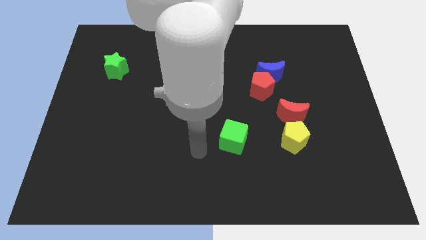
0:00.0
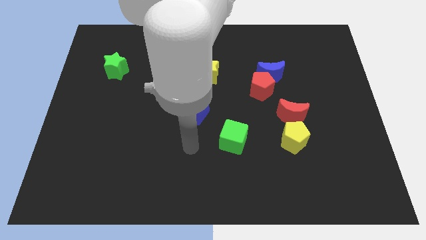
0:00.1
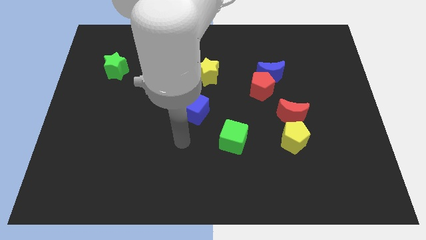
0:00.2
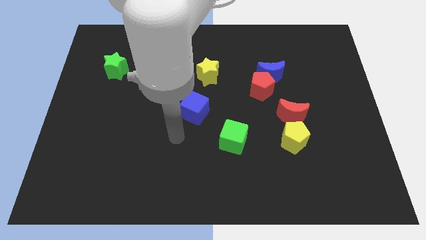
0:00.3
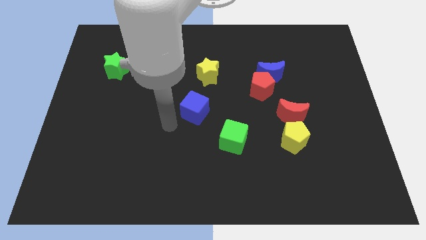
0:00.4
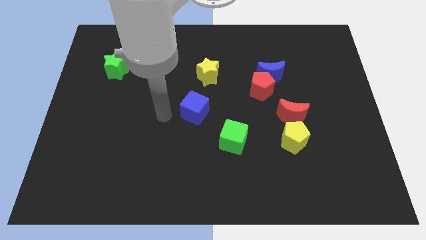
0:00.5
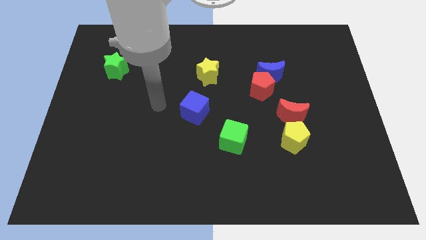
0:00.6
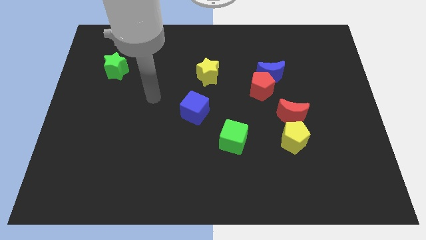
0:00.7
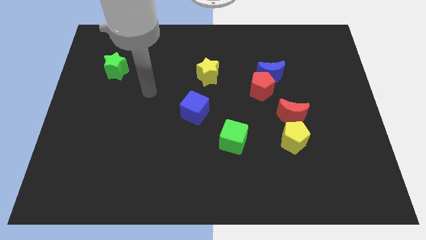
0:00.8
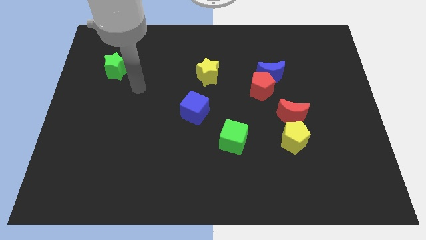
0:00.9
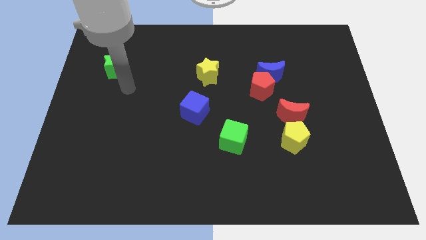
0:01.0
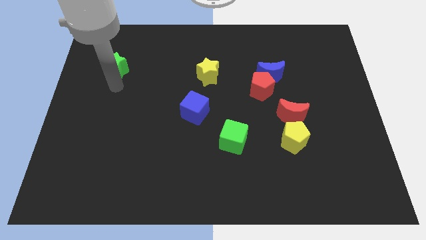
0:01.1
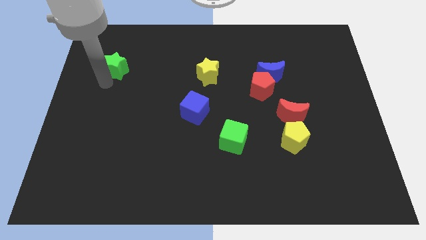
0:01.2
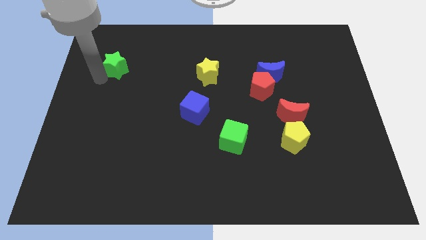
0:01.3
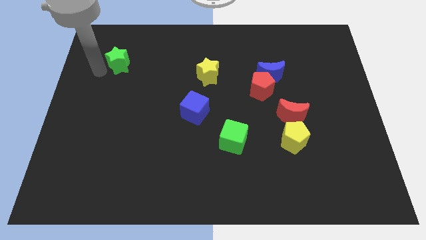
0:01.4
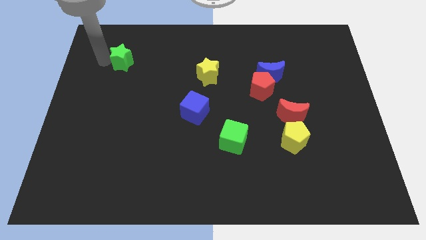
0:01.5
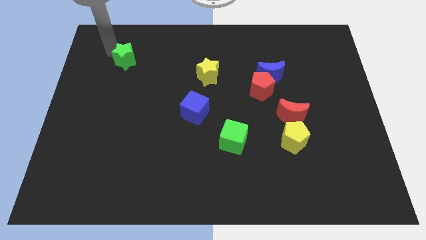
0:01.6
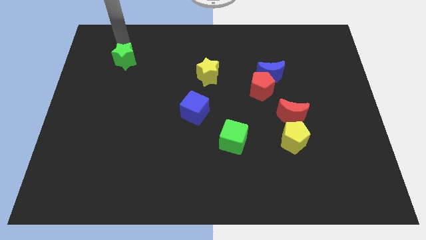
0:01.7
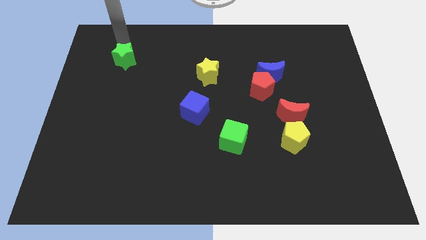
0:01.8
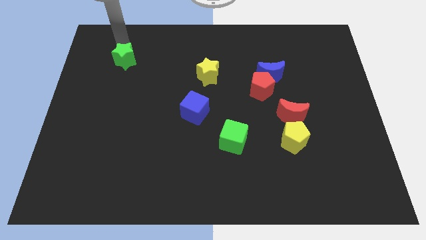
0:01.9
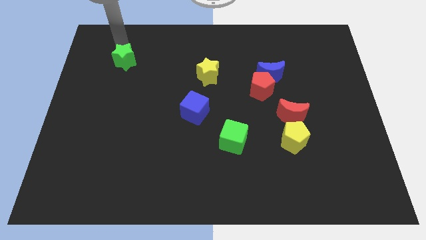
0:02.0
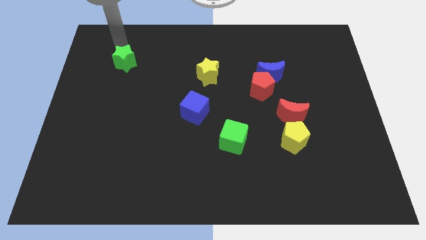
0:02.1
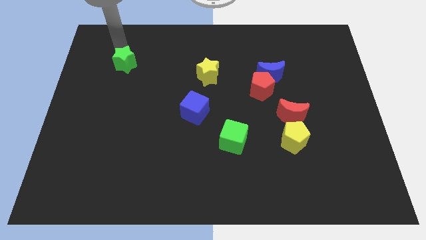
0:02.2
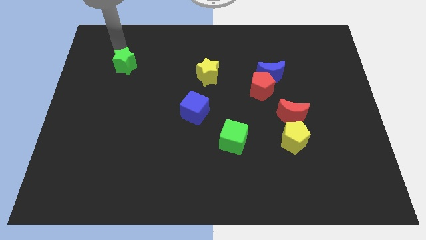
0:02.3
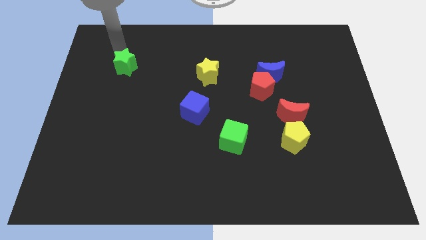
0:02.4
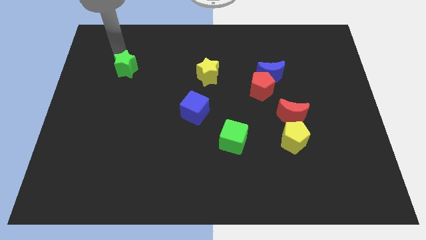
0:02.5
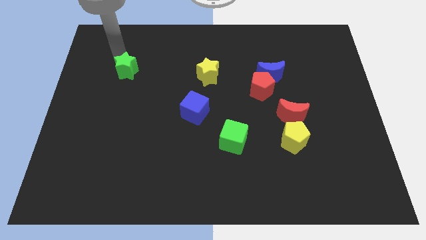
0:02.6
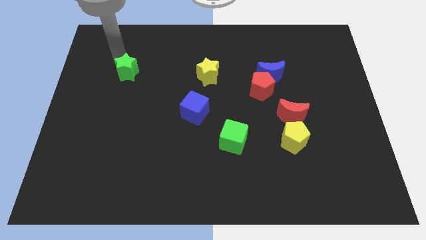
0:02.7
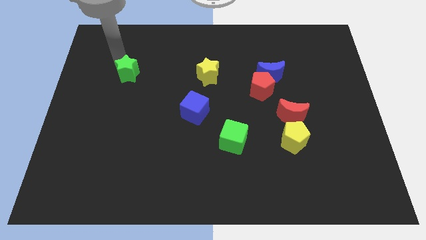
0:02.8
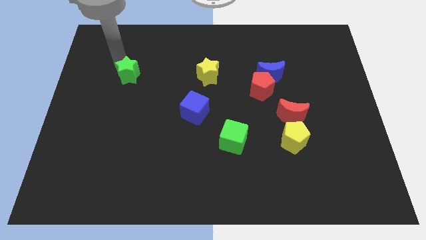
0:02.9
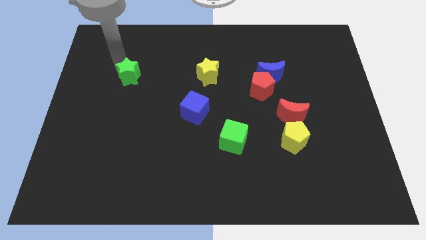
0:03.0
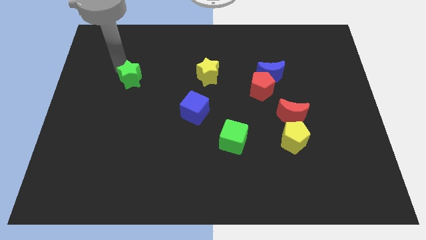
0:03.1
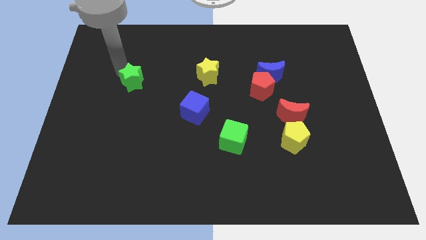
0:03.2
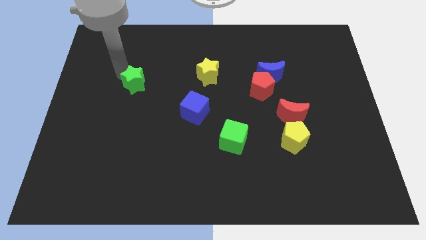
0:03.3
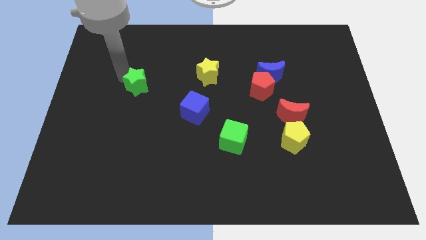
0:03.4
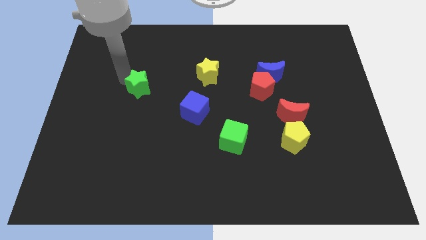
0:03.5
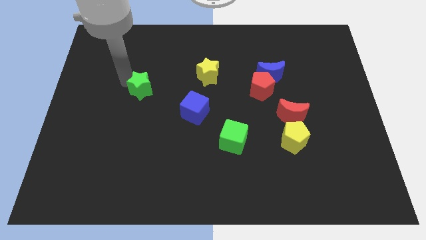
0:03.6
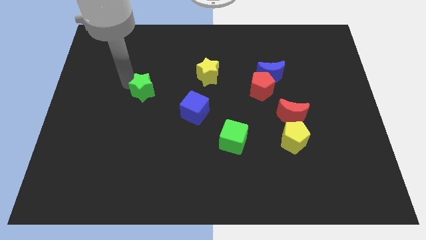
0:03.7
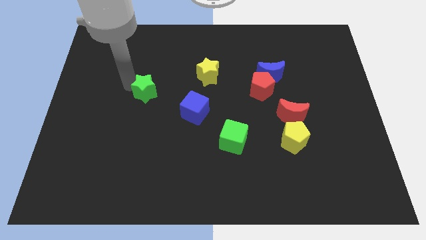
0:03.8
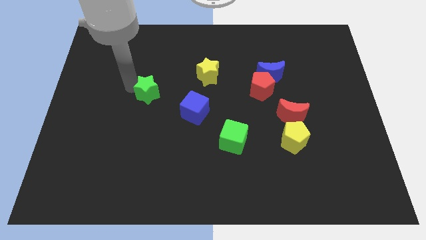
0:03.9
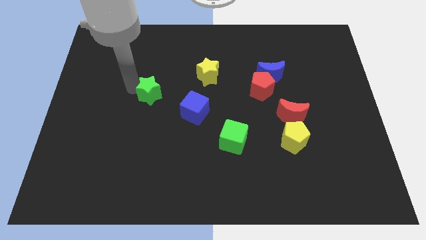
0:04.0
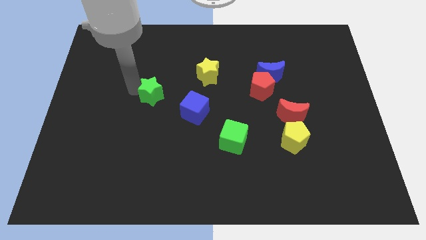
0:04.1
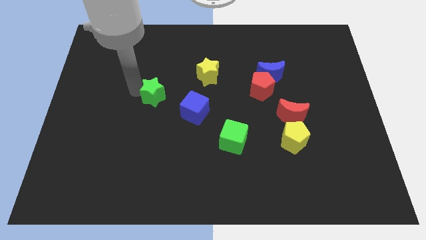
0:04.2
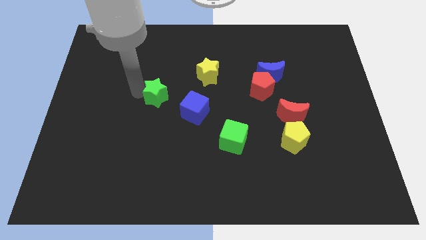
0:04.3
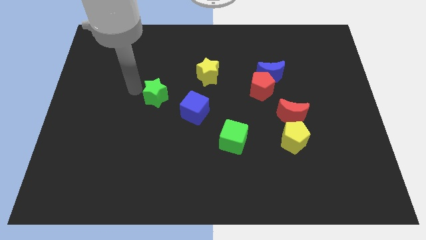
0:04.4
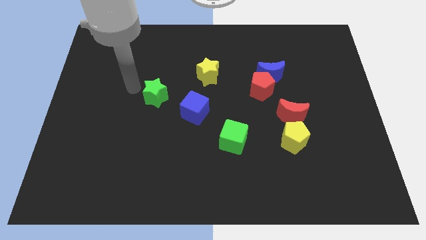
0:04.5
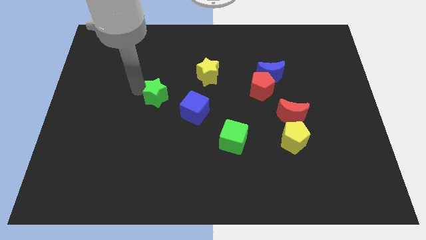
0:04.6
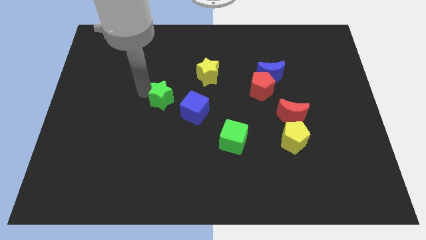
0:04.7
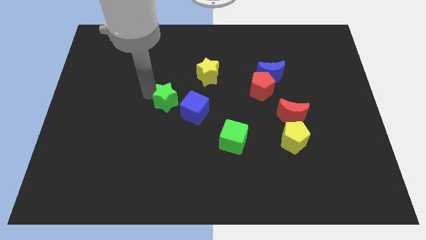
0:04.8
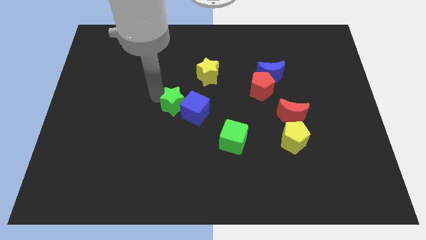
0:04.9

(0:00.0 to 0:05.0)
slide the green star next to the blue cube

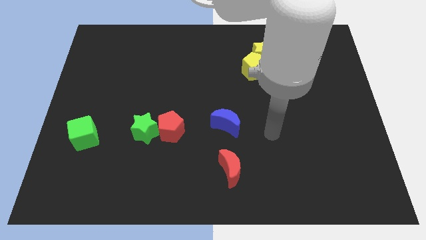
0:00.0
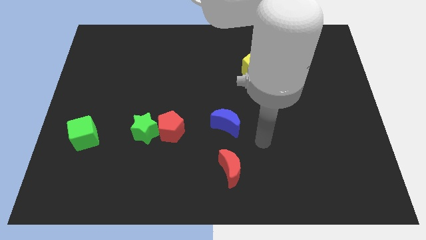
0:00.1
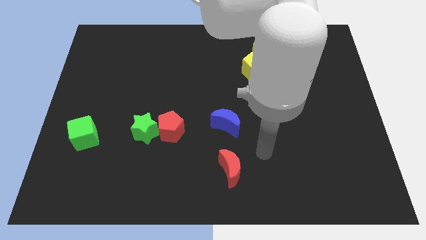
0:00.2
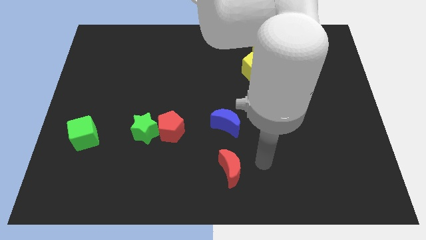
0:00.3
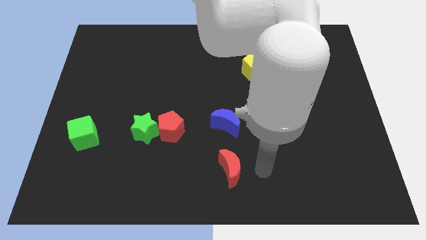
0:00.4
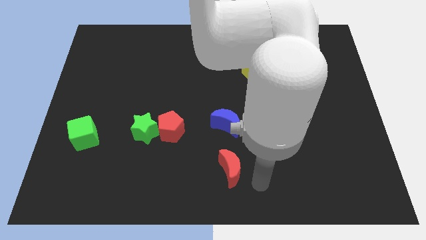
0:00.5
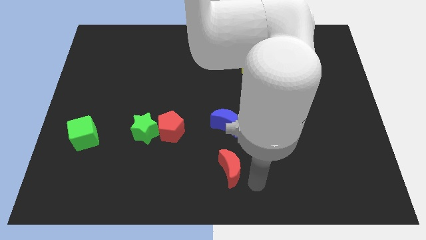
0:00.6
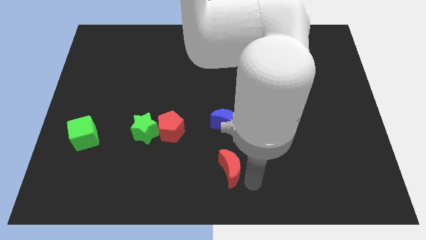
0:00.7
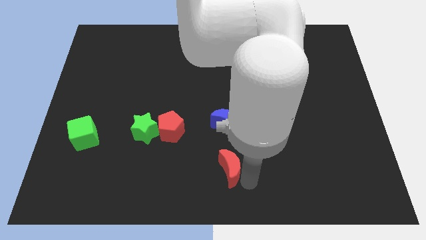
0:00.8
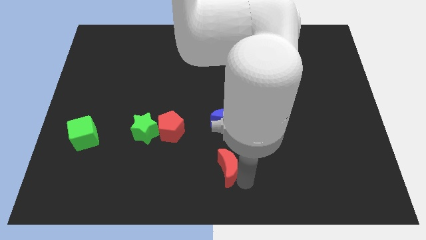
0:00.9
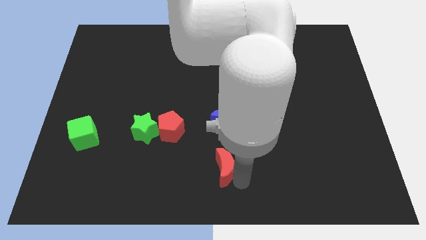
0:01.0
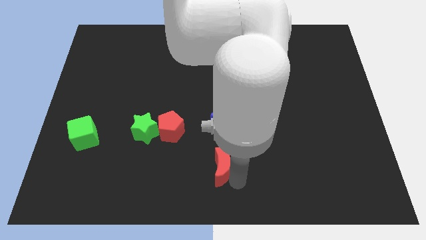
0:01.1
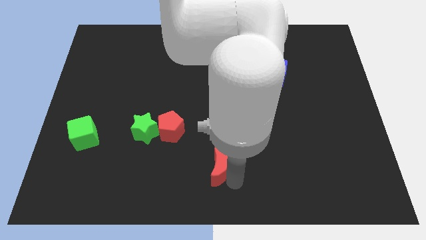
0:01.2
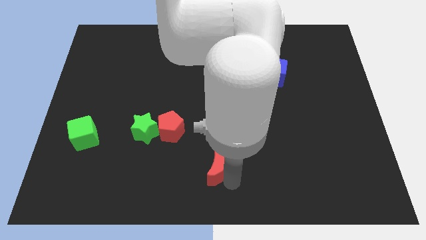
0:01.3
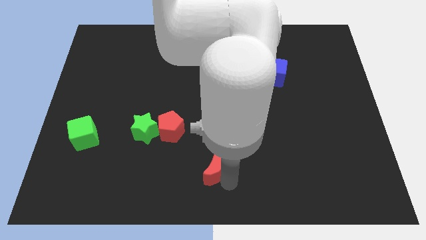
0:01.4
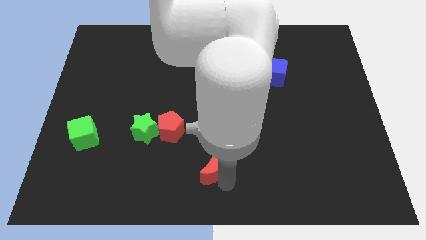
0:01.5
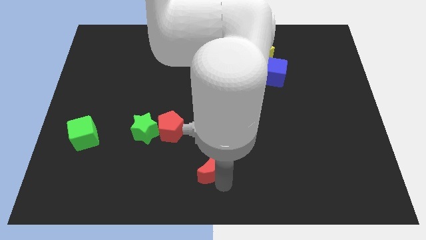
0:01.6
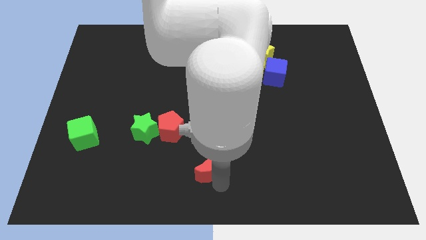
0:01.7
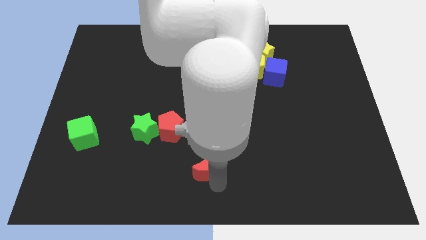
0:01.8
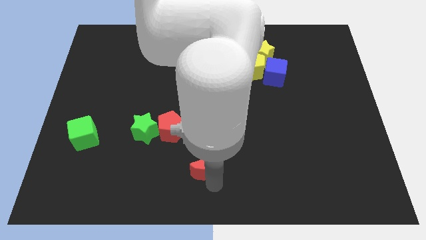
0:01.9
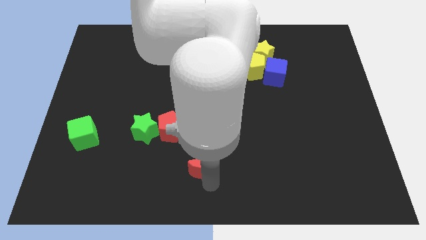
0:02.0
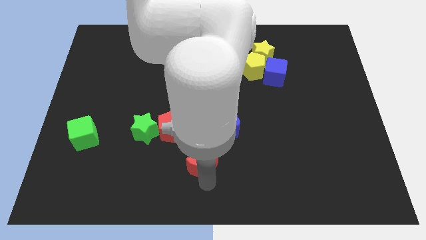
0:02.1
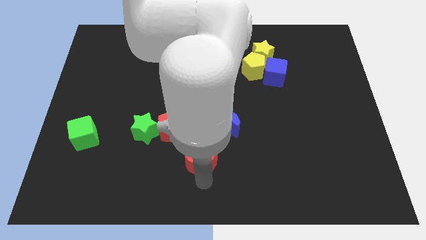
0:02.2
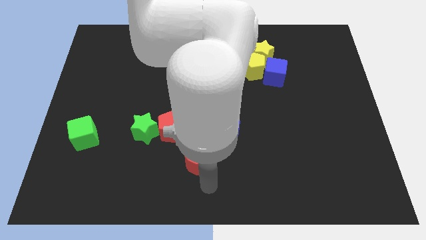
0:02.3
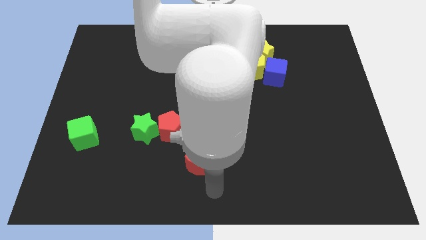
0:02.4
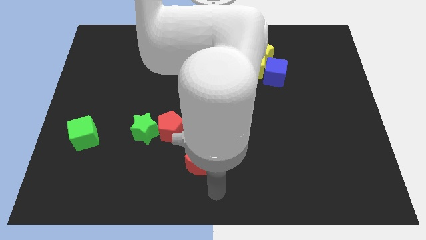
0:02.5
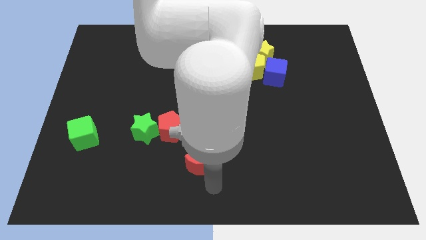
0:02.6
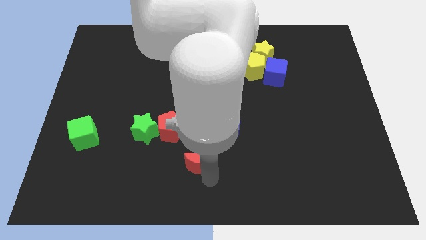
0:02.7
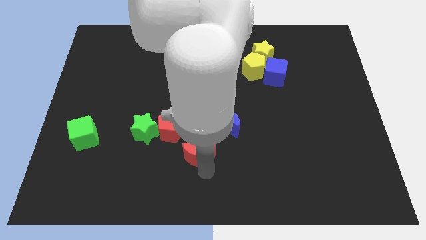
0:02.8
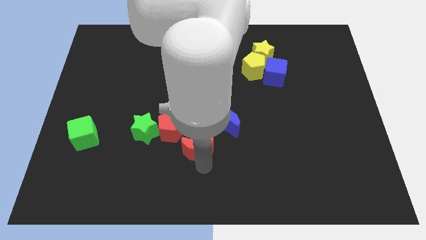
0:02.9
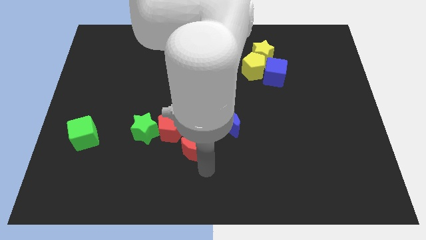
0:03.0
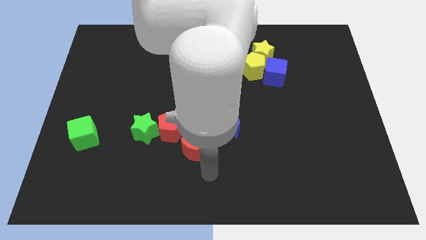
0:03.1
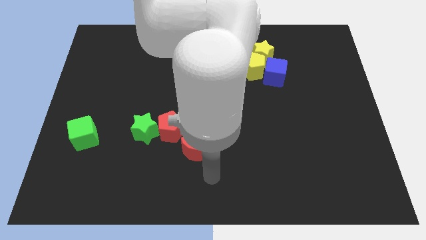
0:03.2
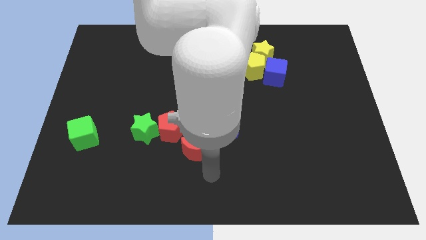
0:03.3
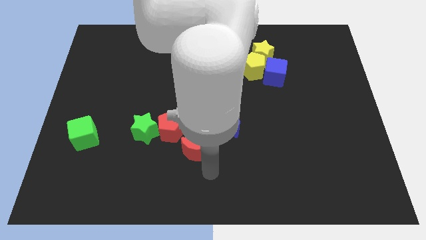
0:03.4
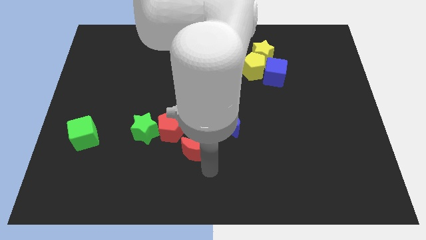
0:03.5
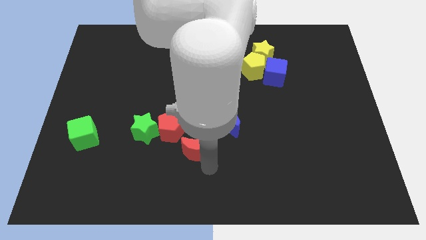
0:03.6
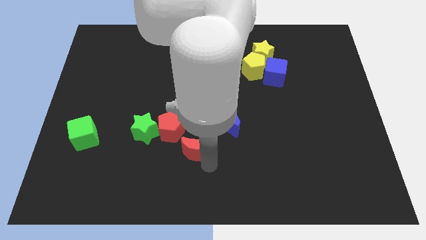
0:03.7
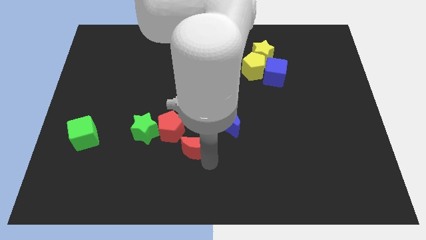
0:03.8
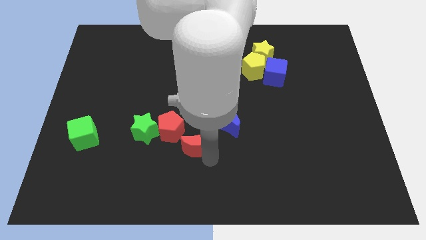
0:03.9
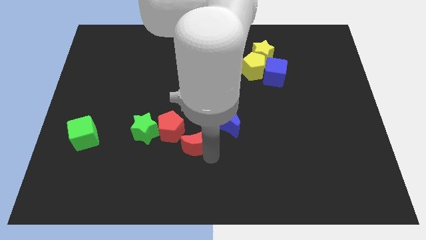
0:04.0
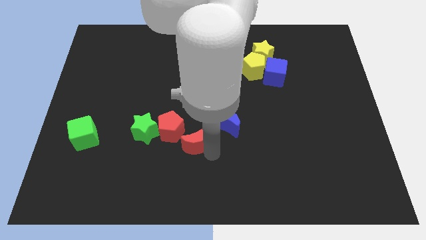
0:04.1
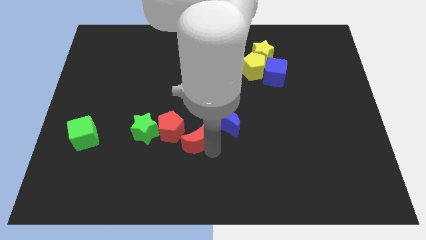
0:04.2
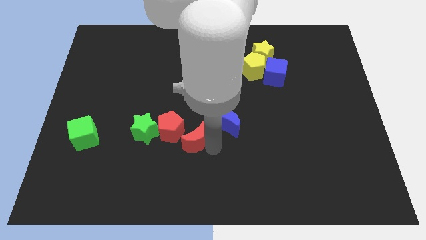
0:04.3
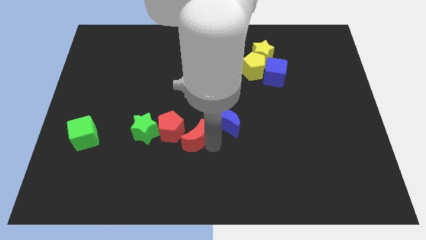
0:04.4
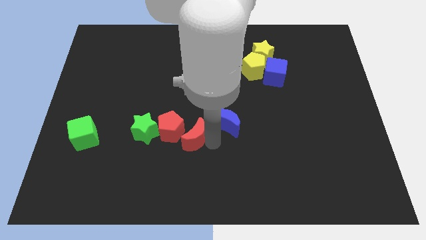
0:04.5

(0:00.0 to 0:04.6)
slide the red moon to the red pentagon
